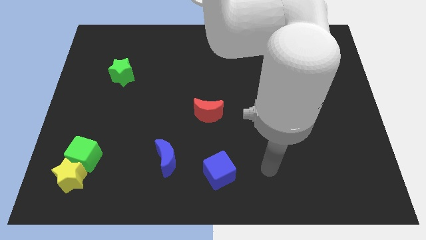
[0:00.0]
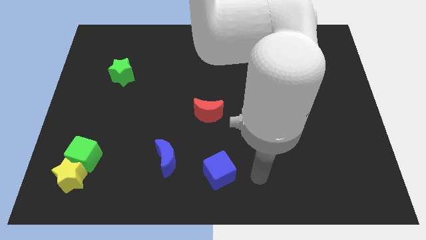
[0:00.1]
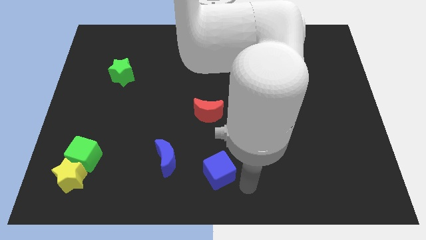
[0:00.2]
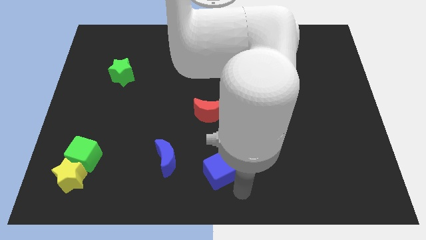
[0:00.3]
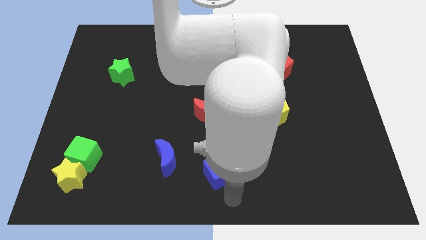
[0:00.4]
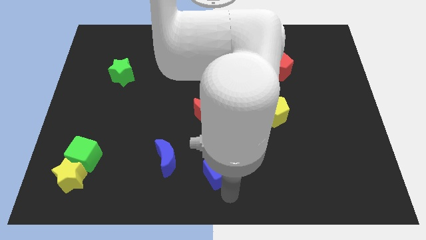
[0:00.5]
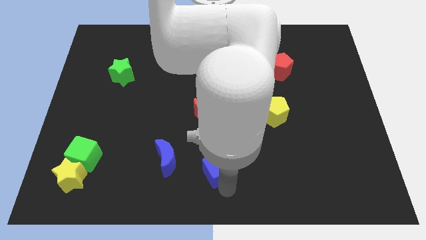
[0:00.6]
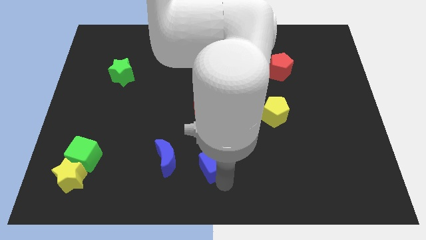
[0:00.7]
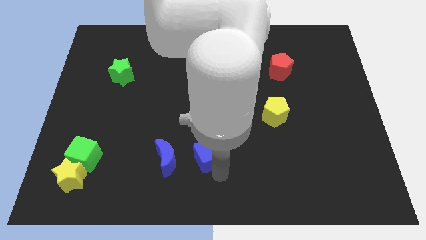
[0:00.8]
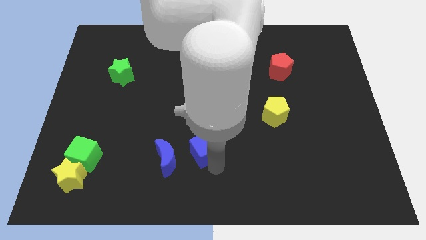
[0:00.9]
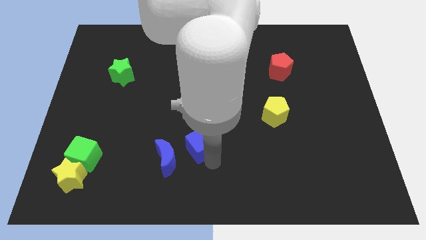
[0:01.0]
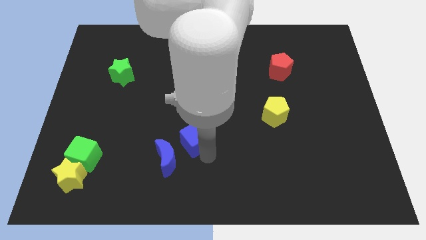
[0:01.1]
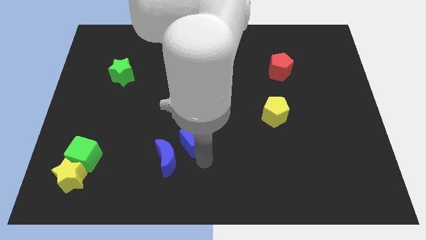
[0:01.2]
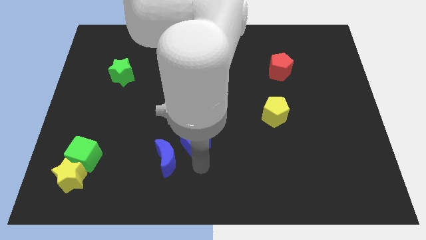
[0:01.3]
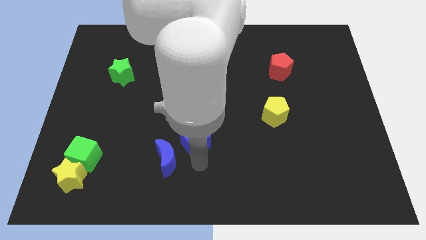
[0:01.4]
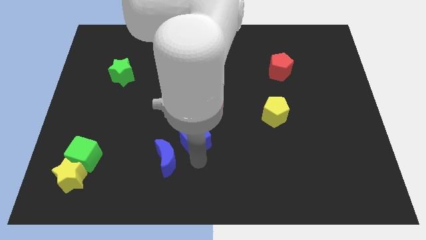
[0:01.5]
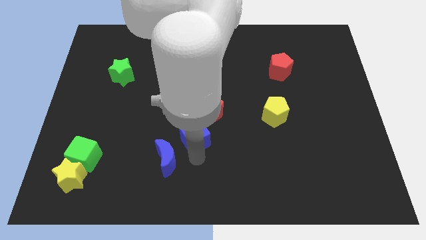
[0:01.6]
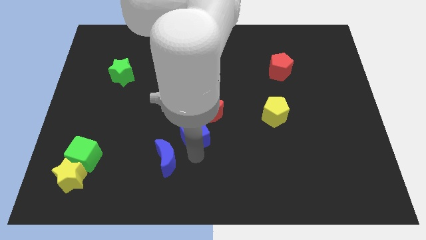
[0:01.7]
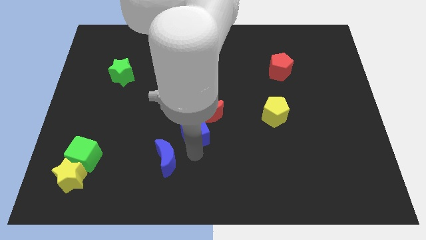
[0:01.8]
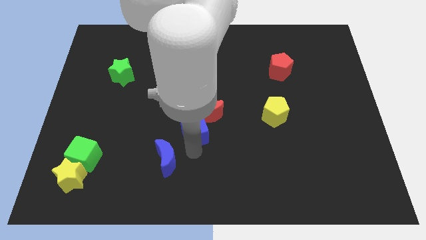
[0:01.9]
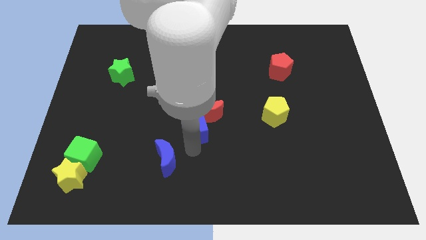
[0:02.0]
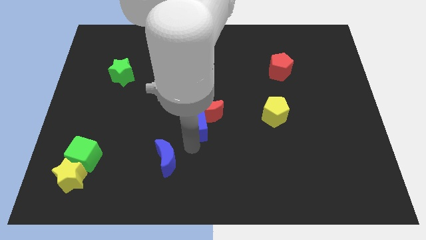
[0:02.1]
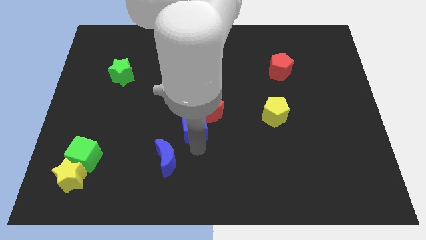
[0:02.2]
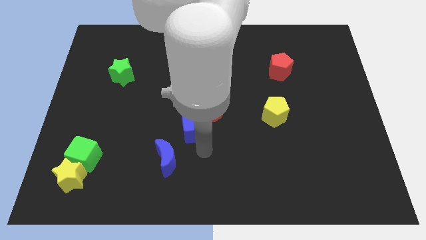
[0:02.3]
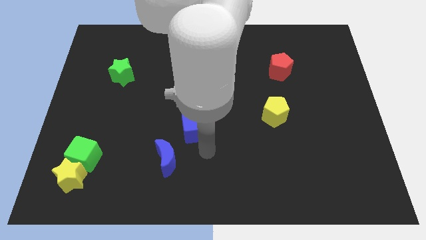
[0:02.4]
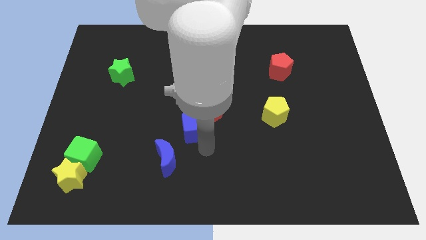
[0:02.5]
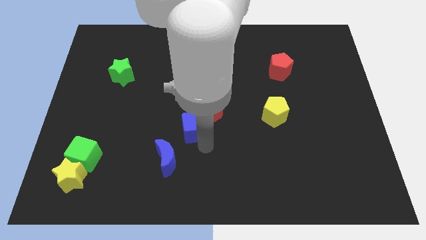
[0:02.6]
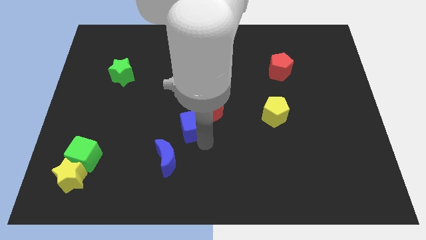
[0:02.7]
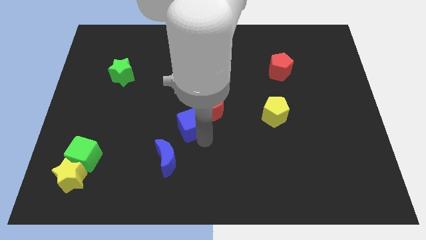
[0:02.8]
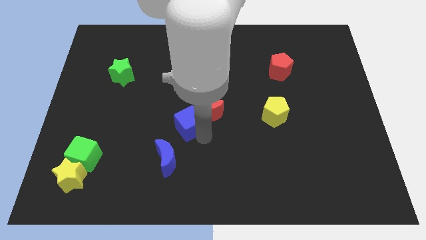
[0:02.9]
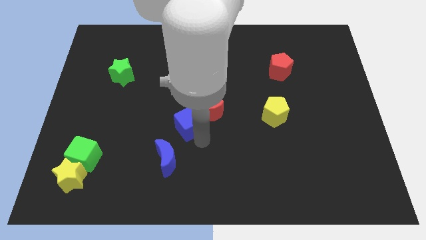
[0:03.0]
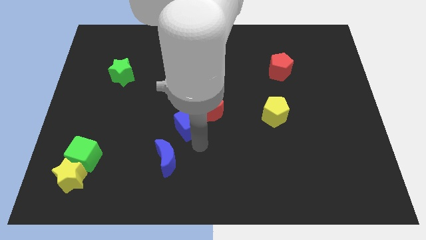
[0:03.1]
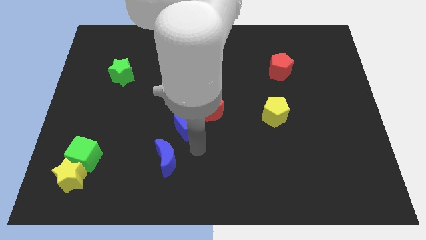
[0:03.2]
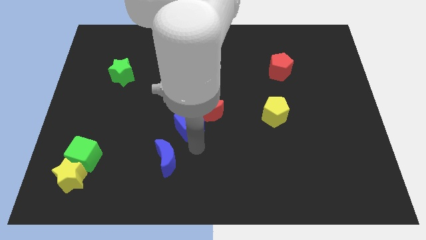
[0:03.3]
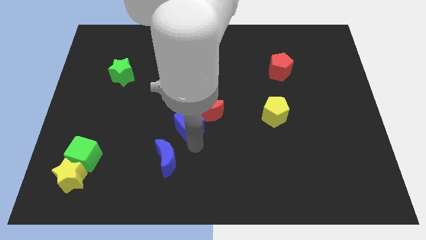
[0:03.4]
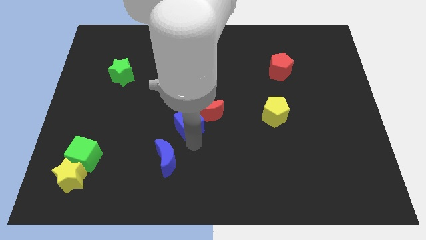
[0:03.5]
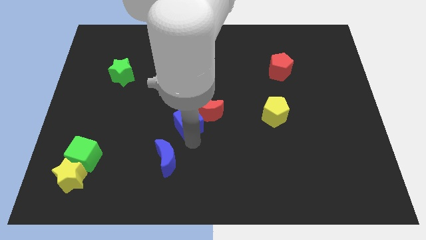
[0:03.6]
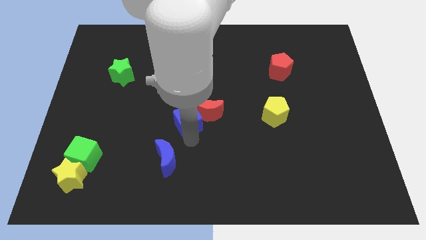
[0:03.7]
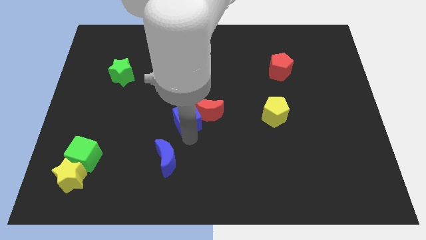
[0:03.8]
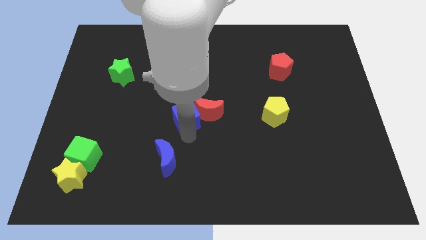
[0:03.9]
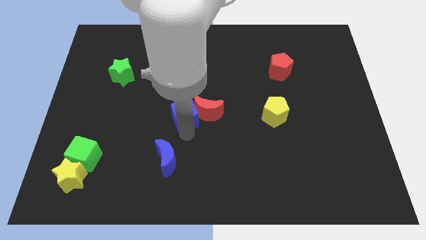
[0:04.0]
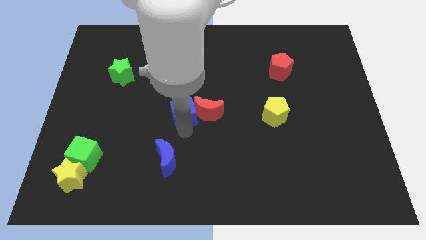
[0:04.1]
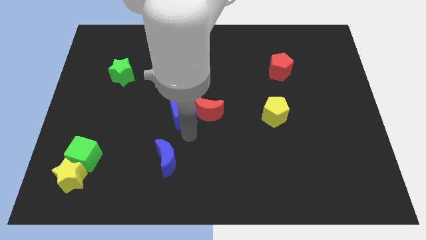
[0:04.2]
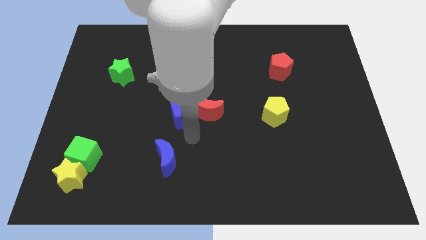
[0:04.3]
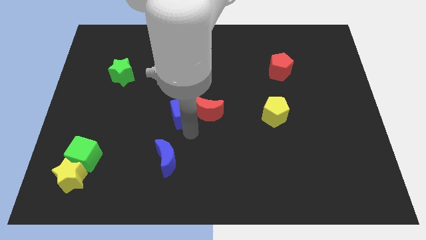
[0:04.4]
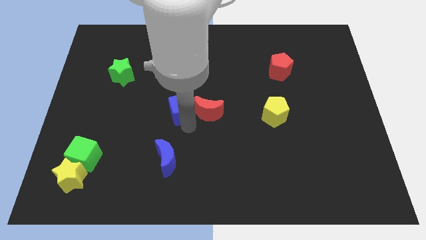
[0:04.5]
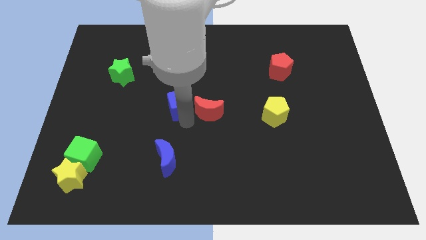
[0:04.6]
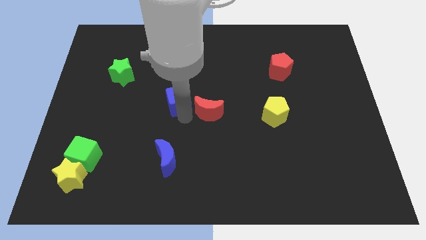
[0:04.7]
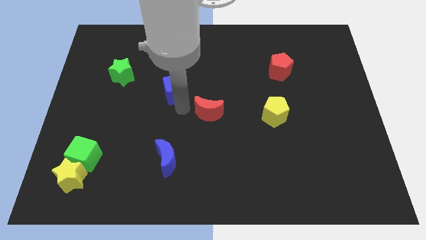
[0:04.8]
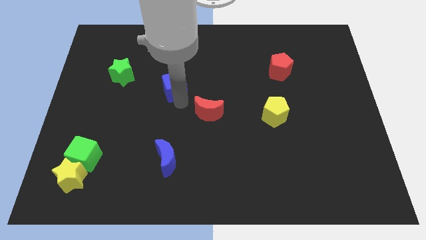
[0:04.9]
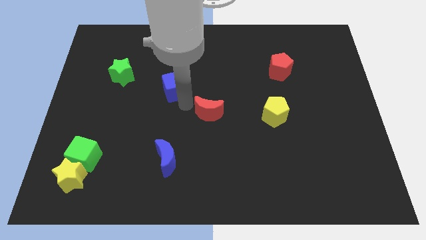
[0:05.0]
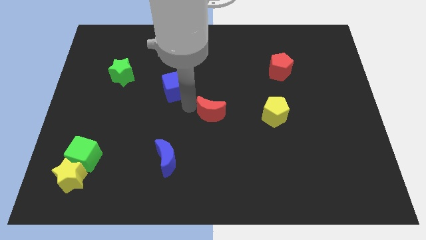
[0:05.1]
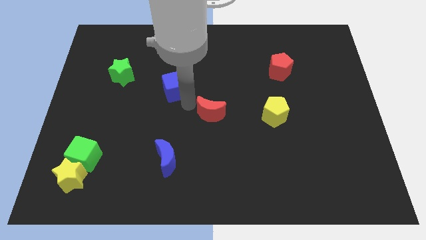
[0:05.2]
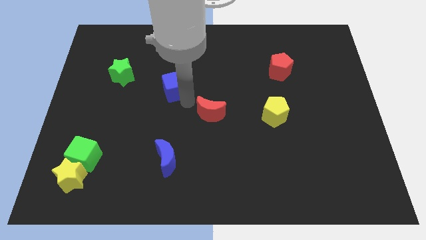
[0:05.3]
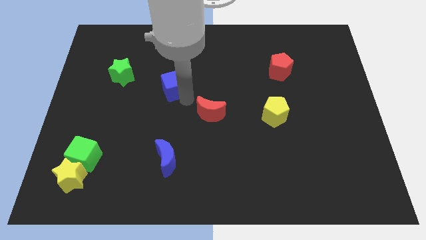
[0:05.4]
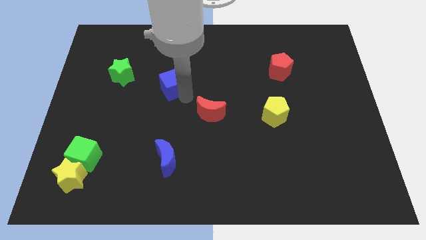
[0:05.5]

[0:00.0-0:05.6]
slide the blue cube to the right of the green star

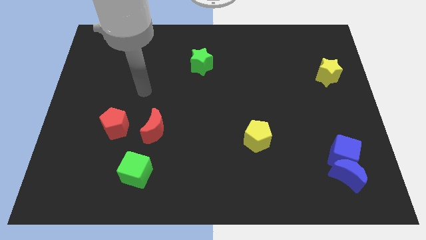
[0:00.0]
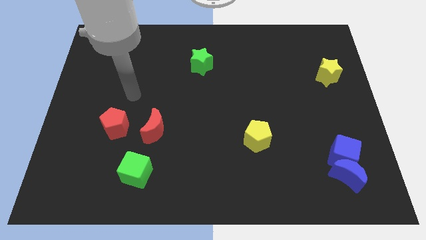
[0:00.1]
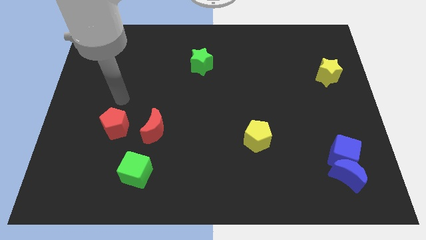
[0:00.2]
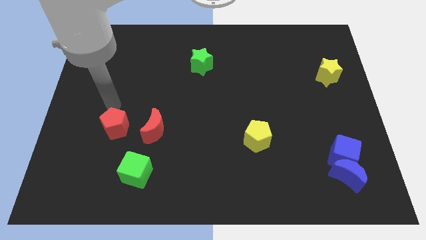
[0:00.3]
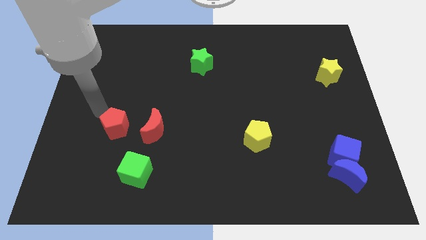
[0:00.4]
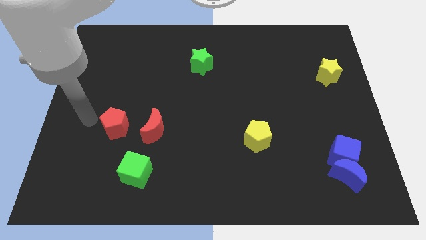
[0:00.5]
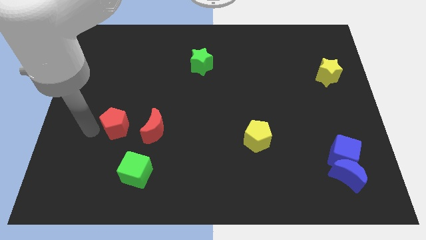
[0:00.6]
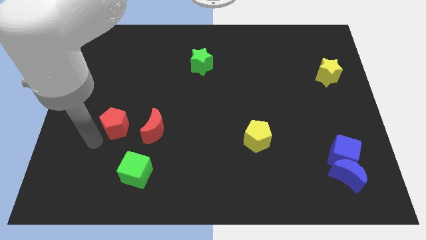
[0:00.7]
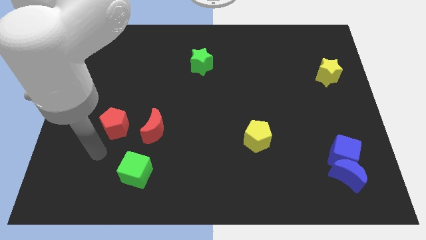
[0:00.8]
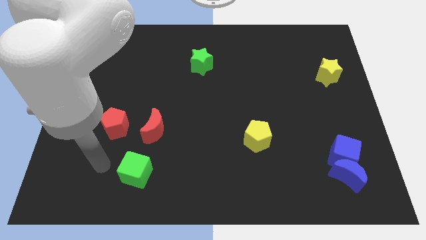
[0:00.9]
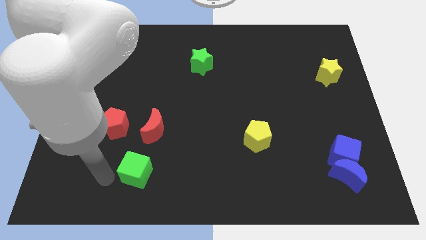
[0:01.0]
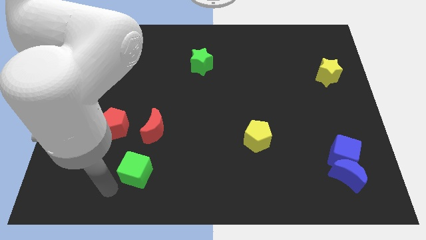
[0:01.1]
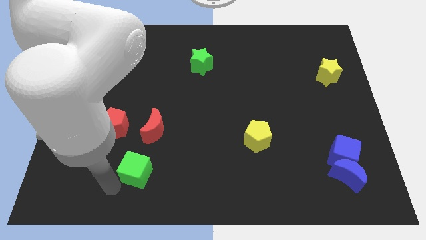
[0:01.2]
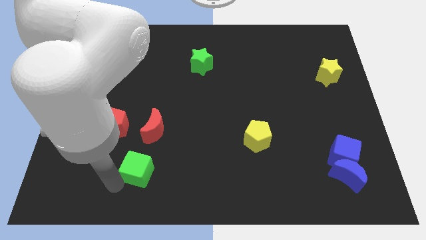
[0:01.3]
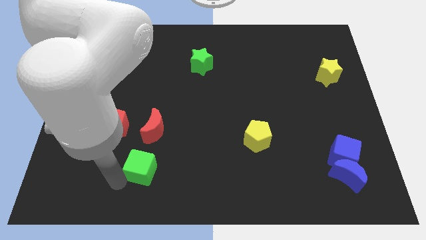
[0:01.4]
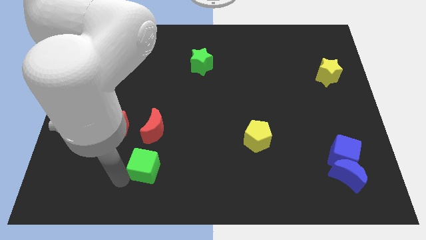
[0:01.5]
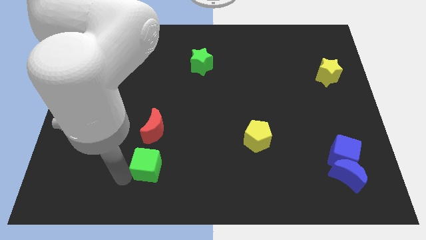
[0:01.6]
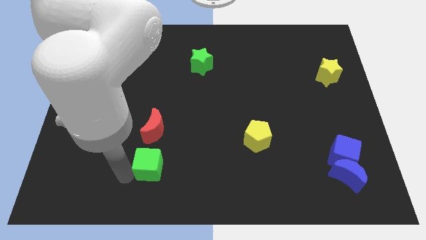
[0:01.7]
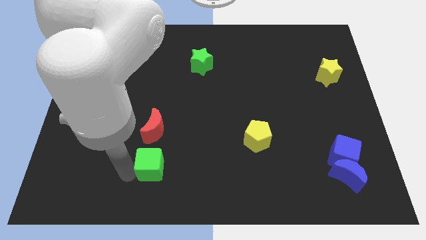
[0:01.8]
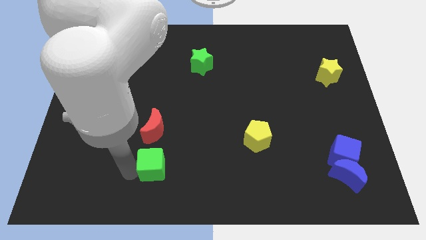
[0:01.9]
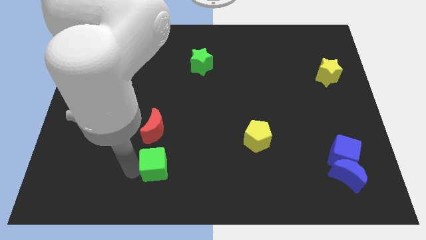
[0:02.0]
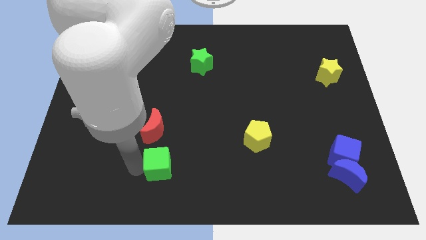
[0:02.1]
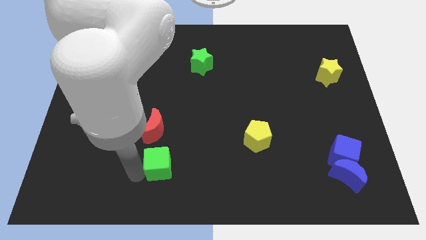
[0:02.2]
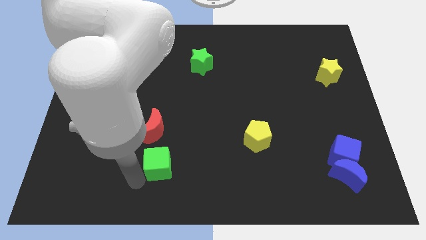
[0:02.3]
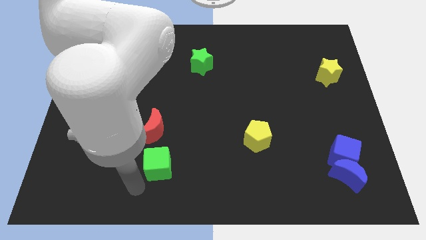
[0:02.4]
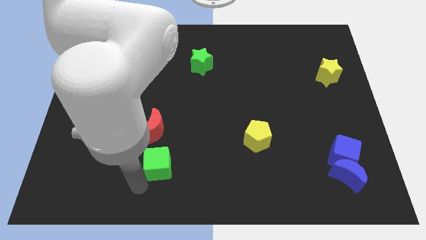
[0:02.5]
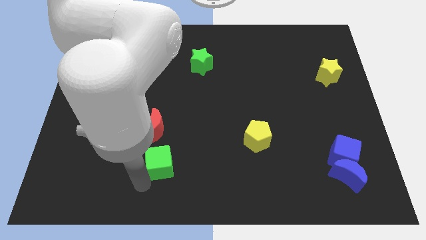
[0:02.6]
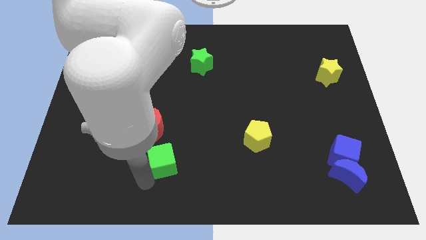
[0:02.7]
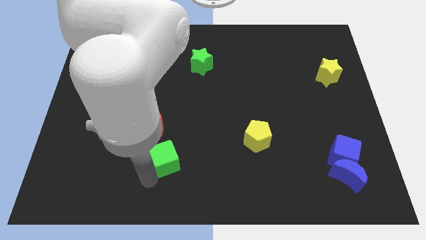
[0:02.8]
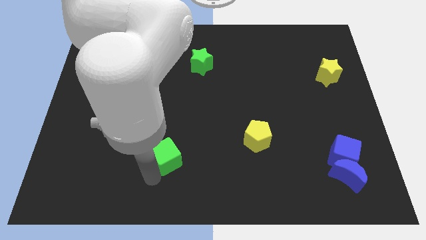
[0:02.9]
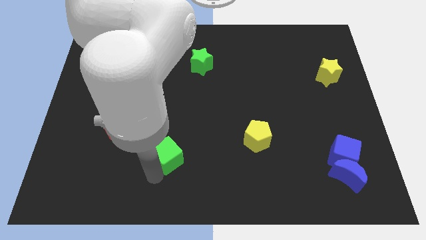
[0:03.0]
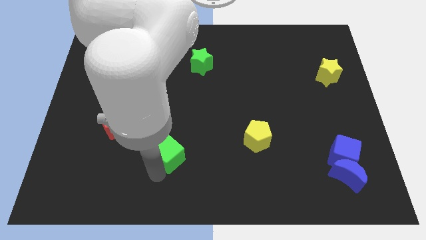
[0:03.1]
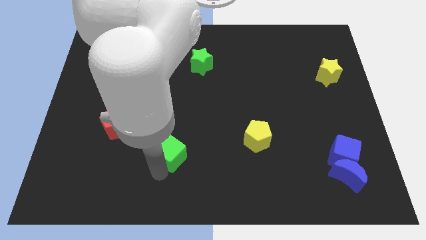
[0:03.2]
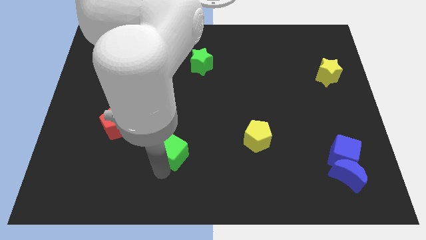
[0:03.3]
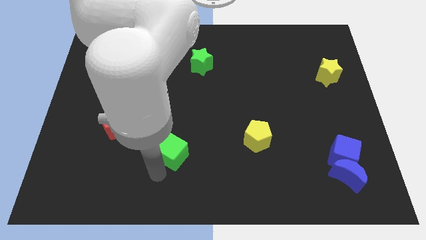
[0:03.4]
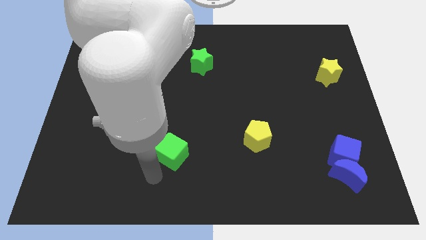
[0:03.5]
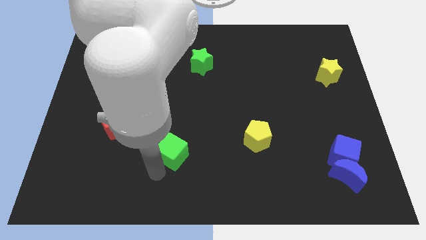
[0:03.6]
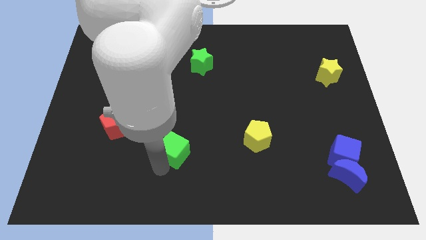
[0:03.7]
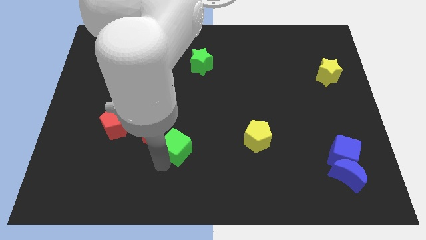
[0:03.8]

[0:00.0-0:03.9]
slide the green cube right of the red moon
